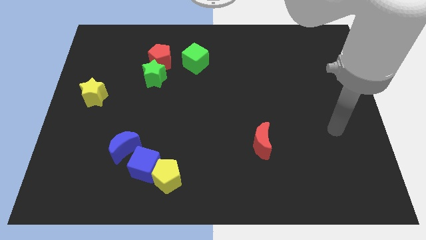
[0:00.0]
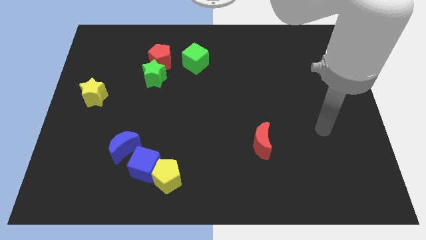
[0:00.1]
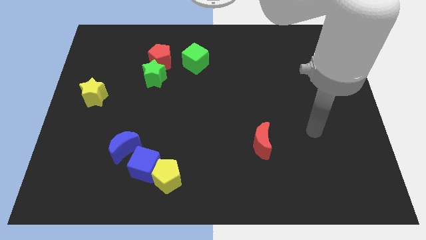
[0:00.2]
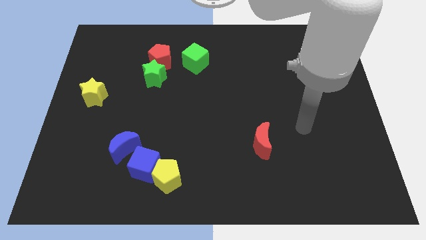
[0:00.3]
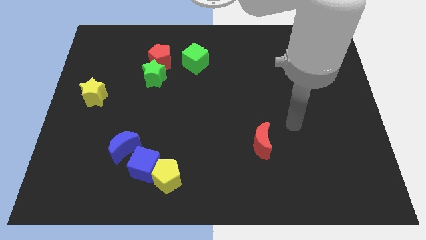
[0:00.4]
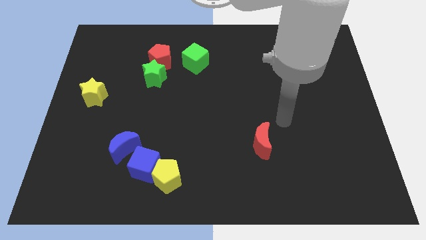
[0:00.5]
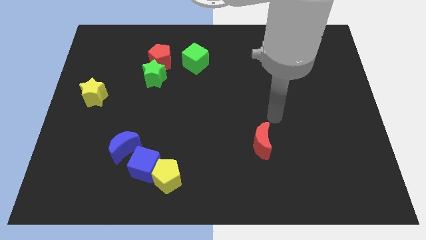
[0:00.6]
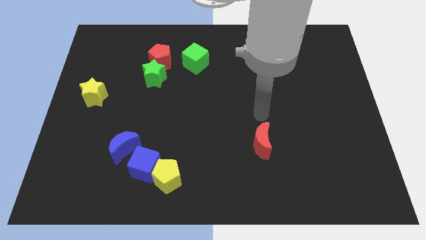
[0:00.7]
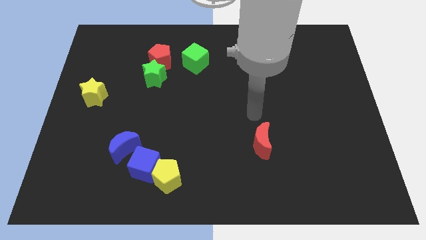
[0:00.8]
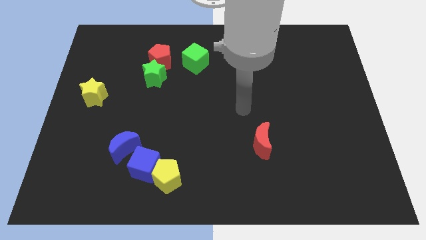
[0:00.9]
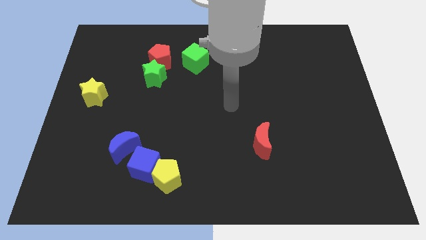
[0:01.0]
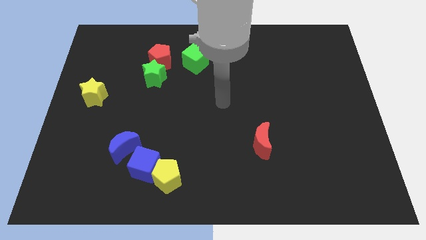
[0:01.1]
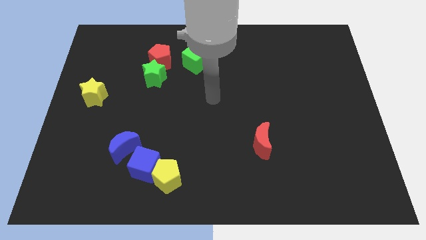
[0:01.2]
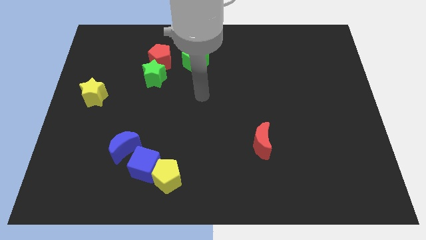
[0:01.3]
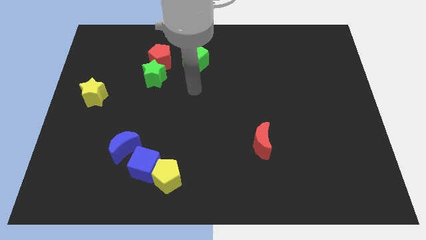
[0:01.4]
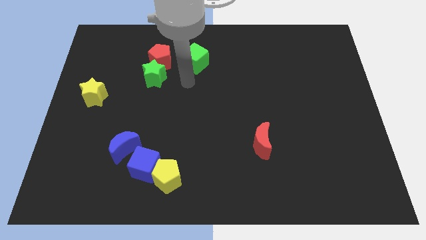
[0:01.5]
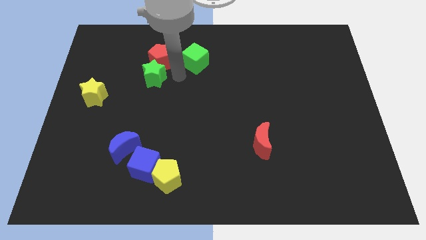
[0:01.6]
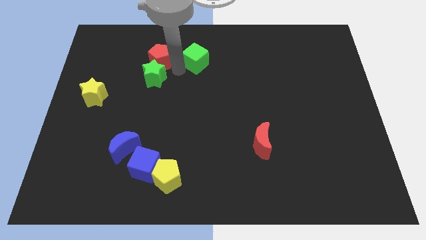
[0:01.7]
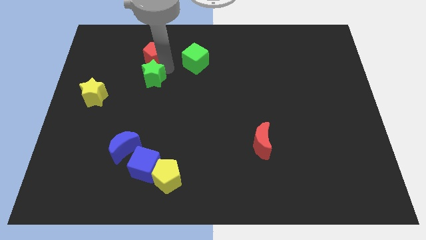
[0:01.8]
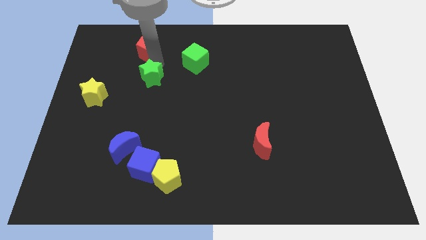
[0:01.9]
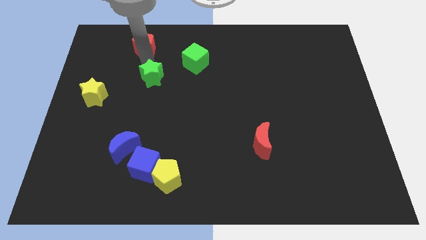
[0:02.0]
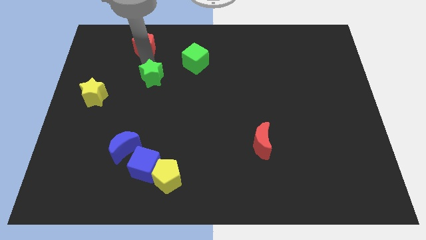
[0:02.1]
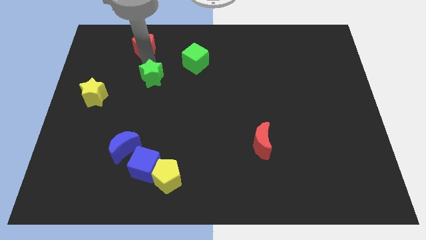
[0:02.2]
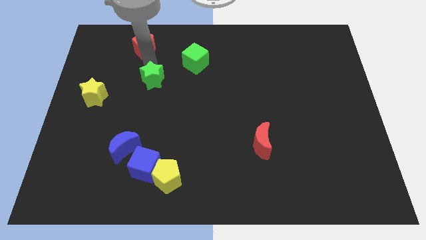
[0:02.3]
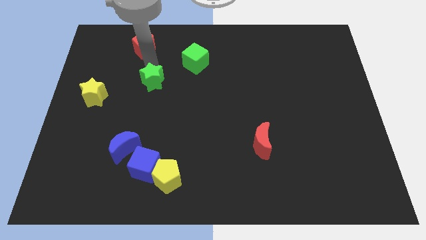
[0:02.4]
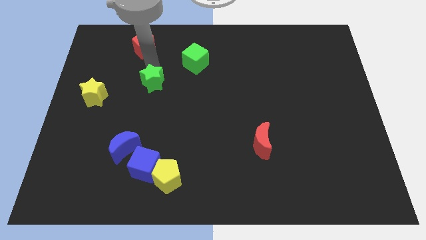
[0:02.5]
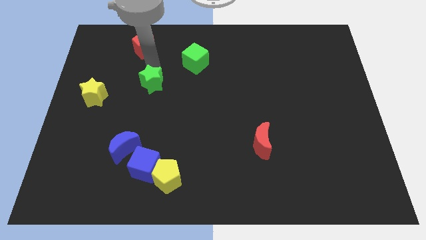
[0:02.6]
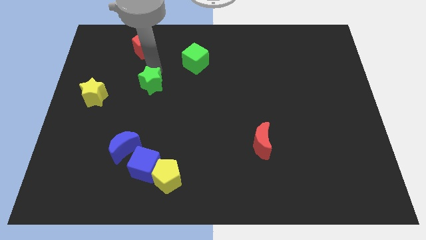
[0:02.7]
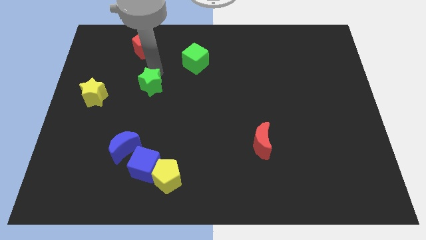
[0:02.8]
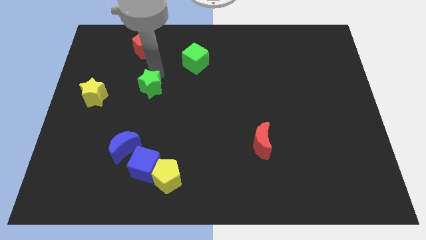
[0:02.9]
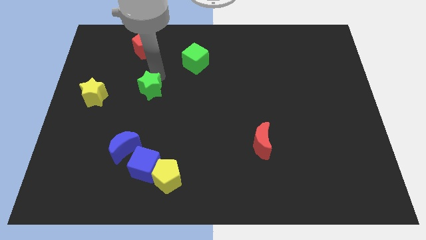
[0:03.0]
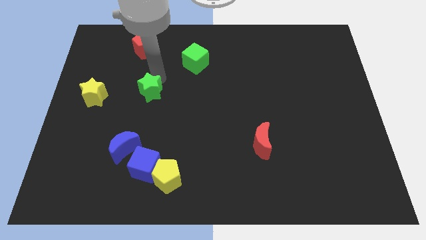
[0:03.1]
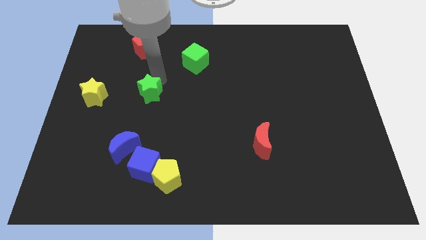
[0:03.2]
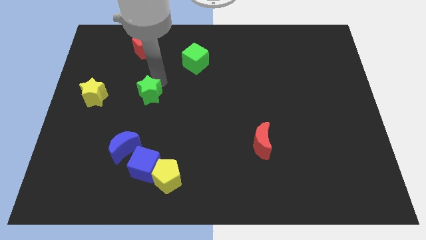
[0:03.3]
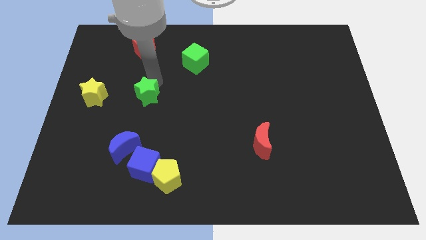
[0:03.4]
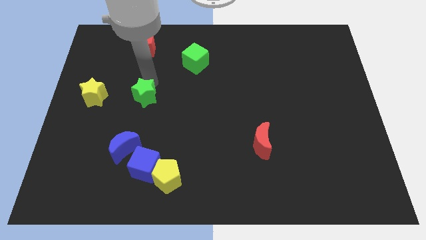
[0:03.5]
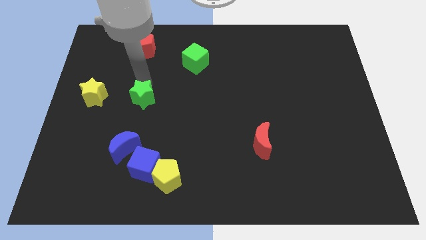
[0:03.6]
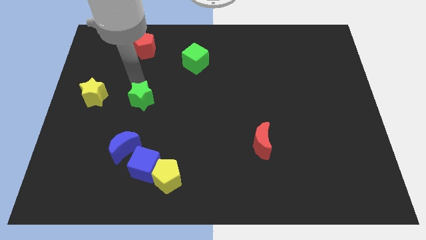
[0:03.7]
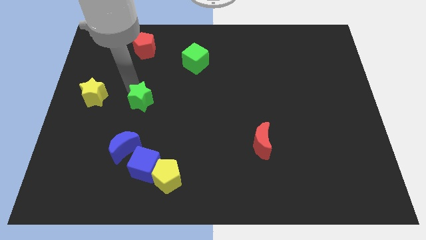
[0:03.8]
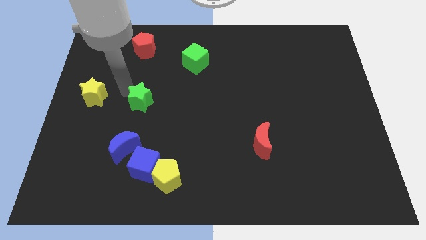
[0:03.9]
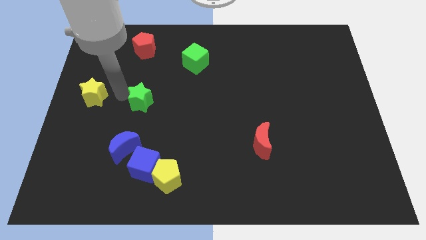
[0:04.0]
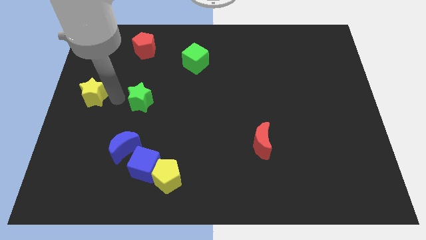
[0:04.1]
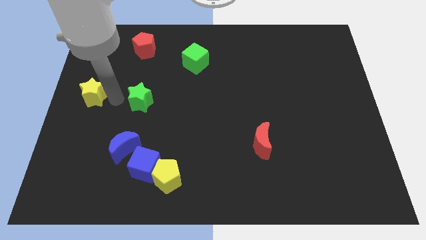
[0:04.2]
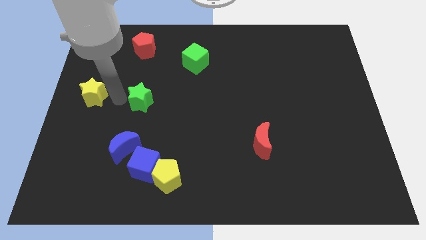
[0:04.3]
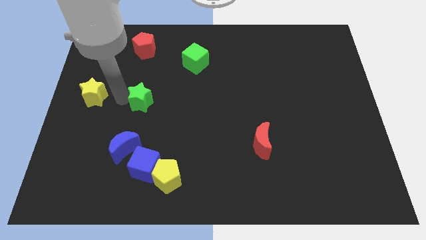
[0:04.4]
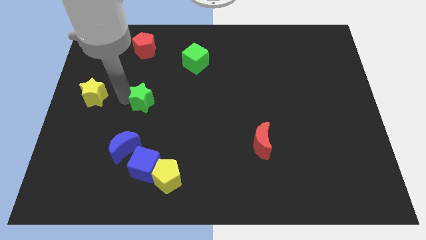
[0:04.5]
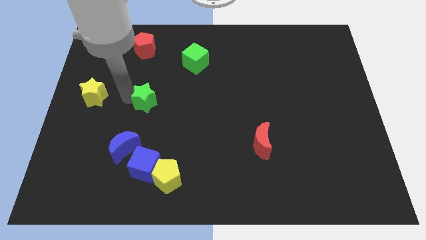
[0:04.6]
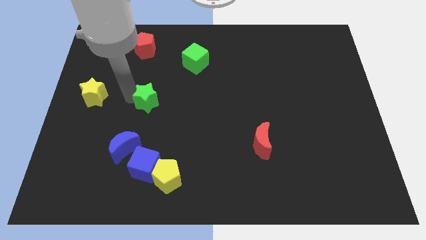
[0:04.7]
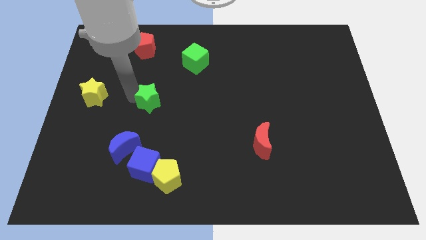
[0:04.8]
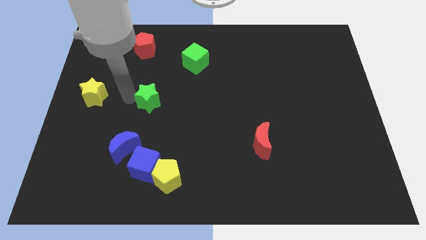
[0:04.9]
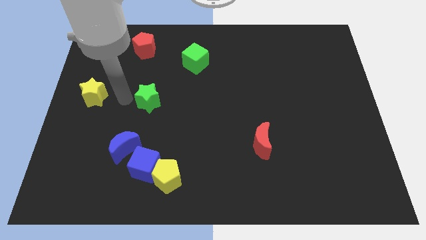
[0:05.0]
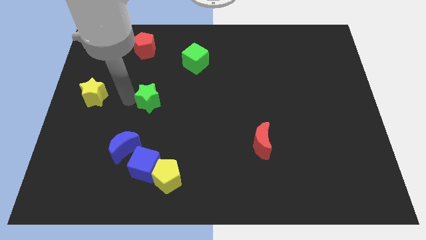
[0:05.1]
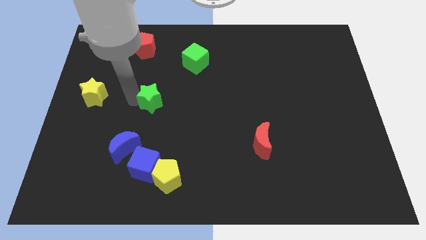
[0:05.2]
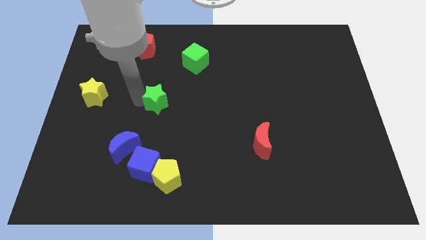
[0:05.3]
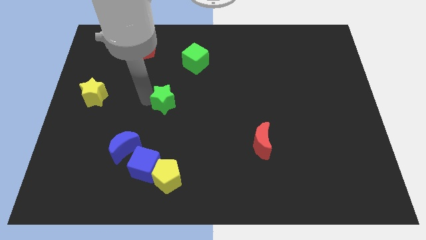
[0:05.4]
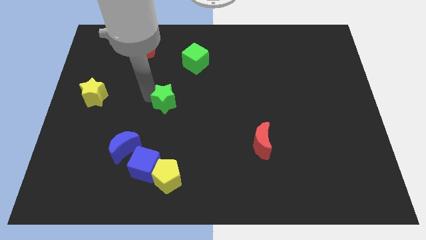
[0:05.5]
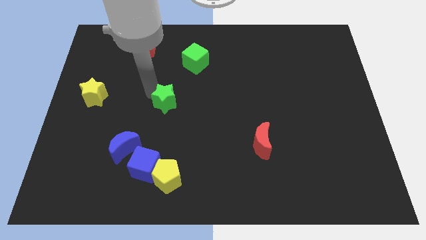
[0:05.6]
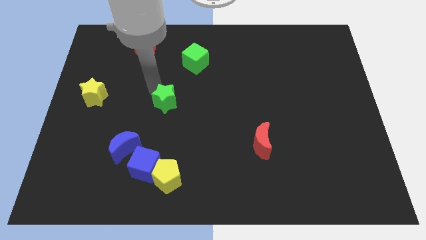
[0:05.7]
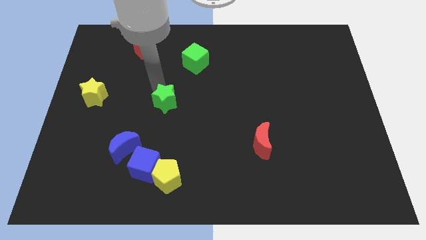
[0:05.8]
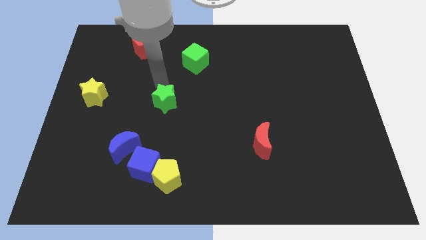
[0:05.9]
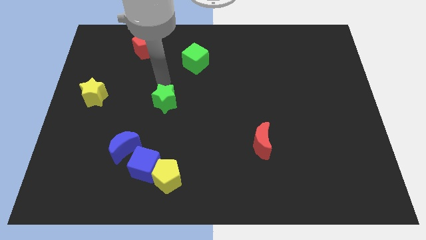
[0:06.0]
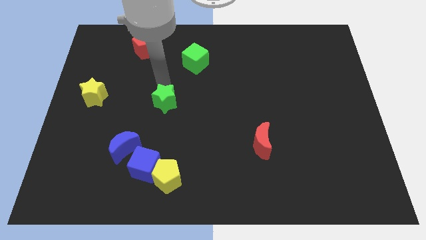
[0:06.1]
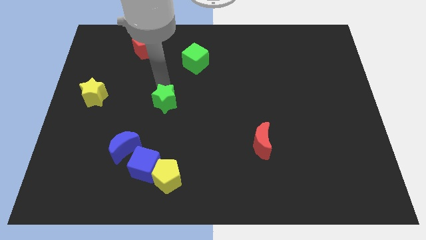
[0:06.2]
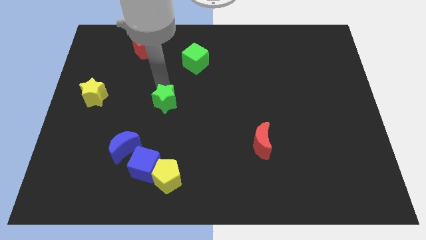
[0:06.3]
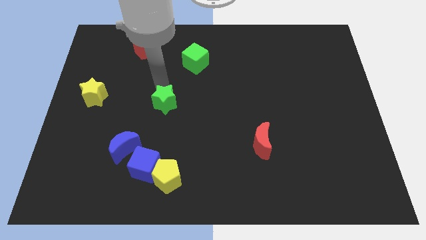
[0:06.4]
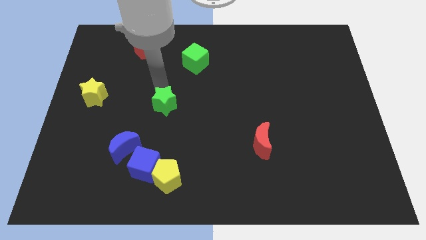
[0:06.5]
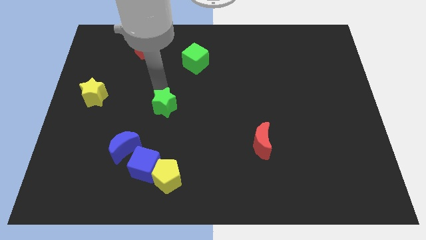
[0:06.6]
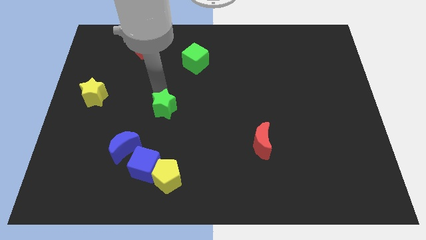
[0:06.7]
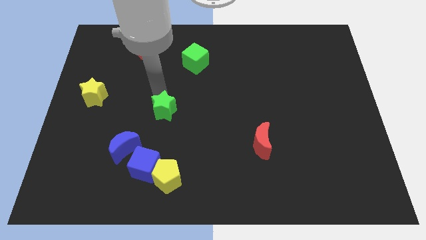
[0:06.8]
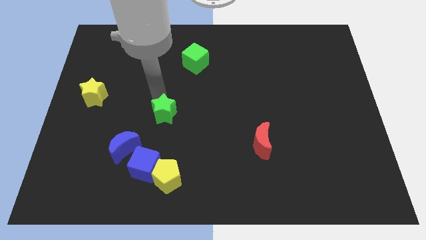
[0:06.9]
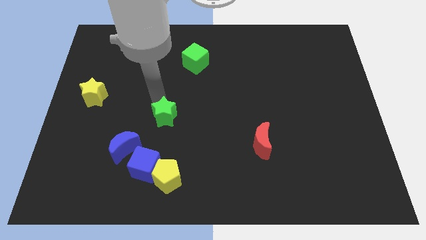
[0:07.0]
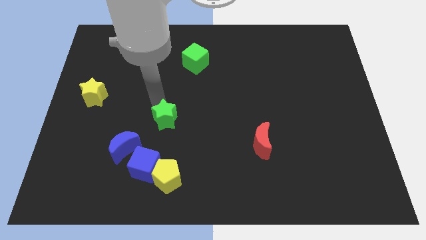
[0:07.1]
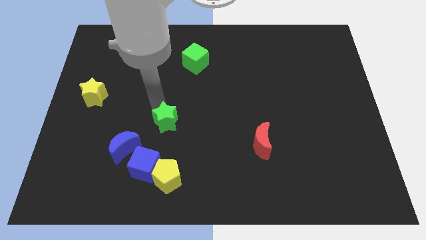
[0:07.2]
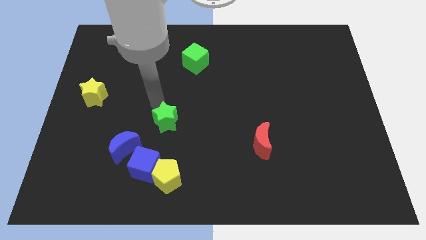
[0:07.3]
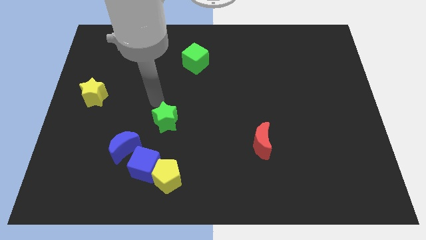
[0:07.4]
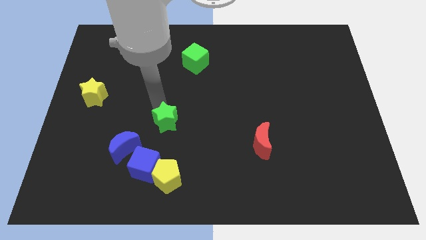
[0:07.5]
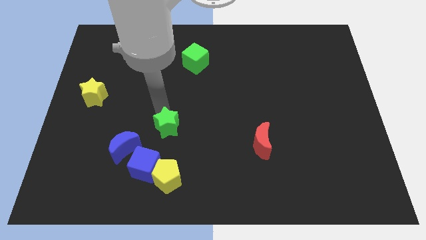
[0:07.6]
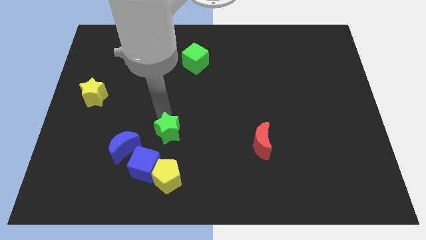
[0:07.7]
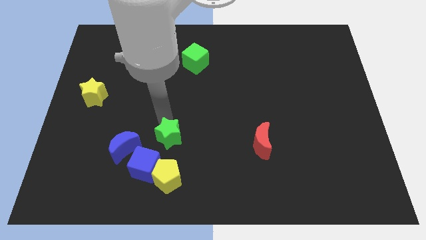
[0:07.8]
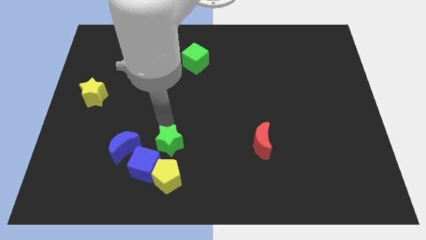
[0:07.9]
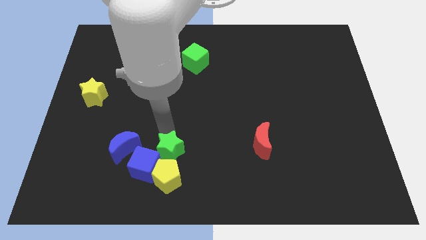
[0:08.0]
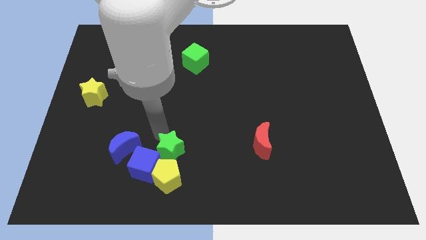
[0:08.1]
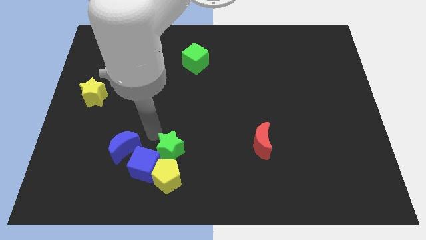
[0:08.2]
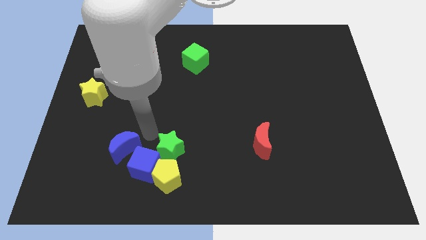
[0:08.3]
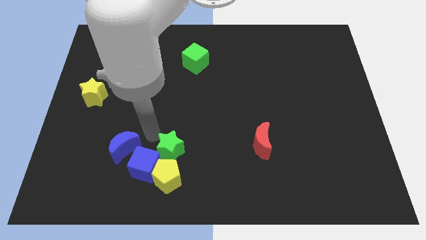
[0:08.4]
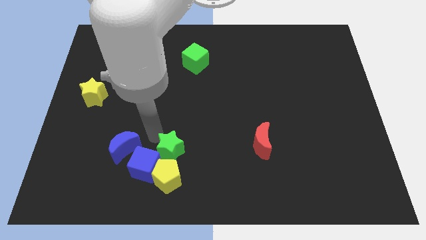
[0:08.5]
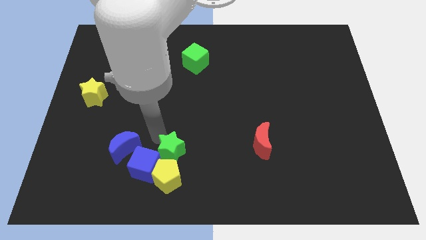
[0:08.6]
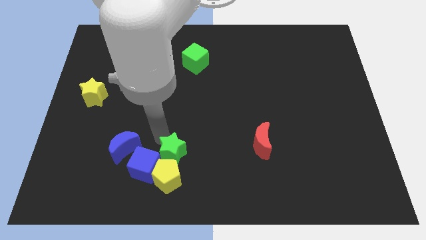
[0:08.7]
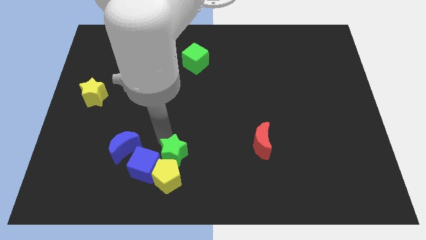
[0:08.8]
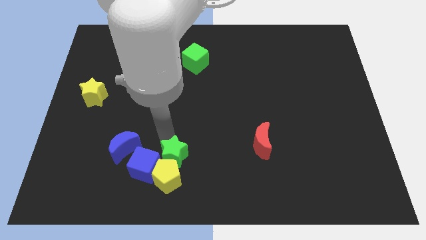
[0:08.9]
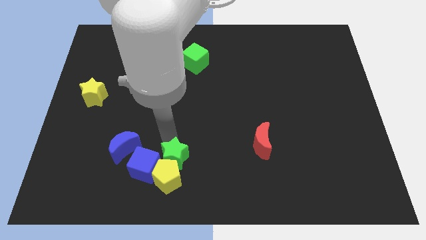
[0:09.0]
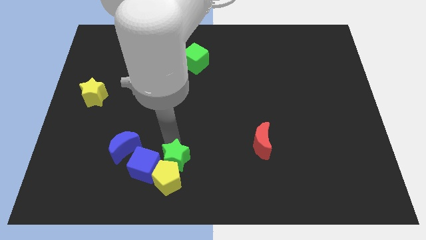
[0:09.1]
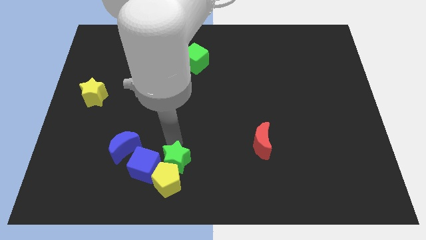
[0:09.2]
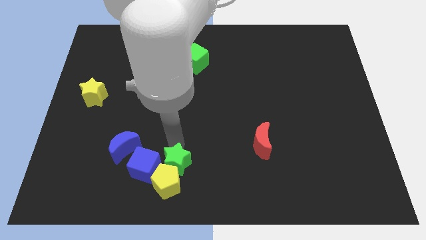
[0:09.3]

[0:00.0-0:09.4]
put the green star to the bottom side
